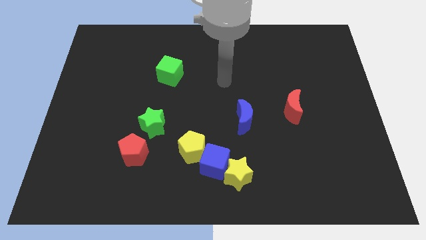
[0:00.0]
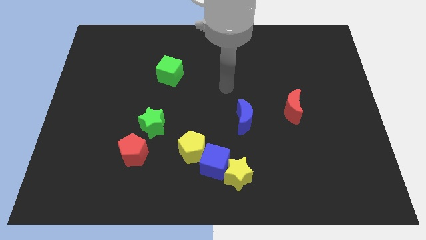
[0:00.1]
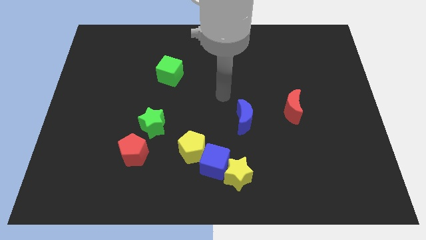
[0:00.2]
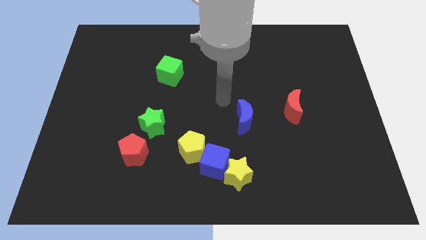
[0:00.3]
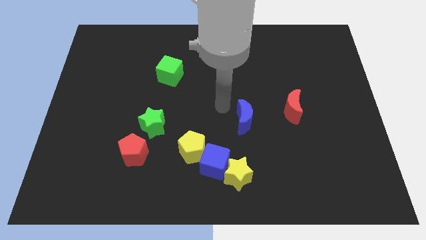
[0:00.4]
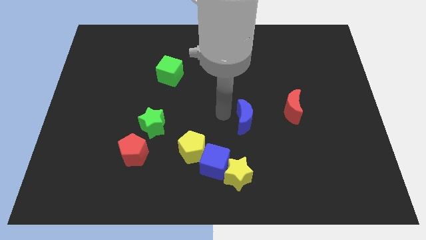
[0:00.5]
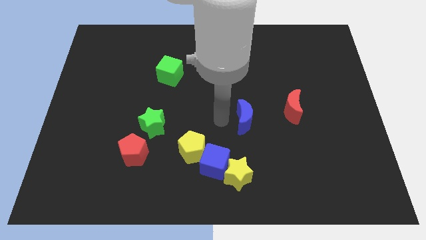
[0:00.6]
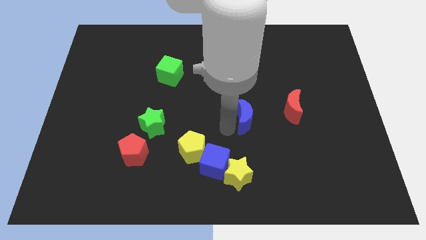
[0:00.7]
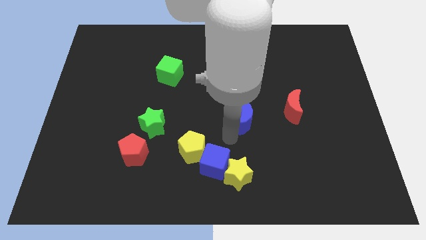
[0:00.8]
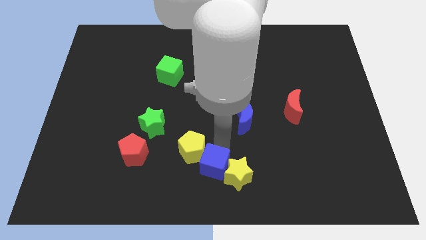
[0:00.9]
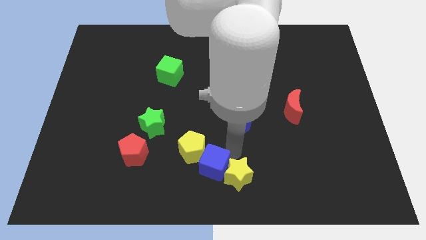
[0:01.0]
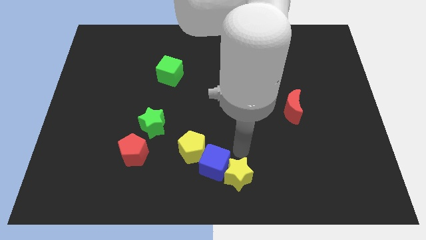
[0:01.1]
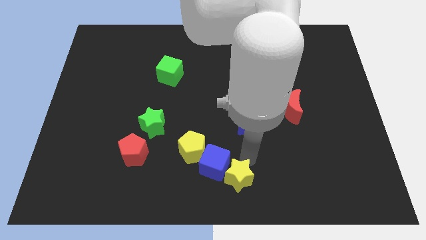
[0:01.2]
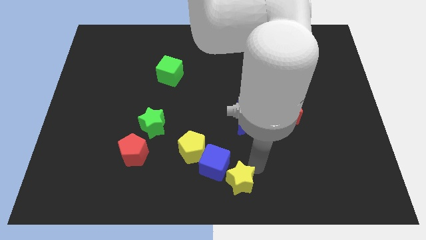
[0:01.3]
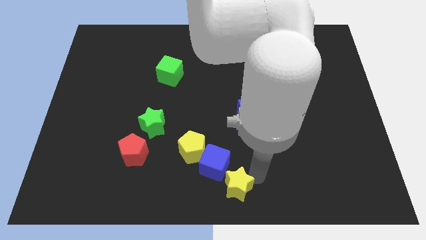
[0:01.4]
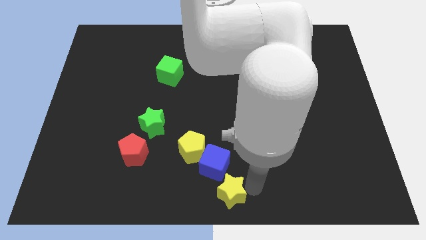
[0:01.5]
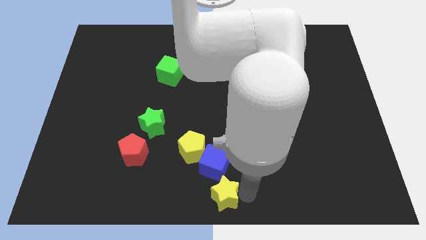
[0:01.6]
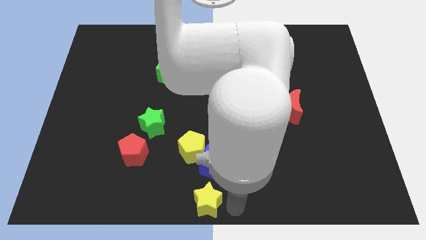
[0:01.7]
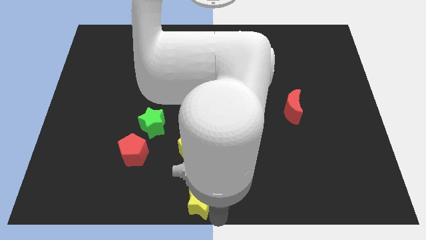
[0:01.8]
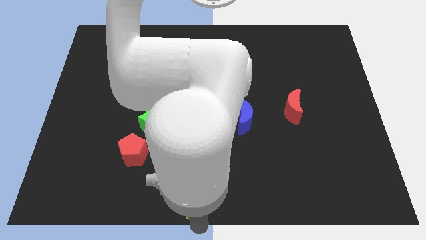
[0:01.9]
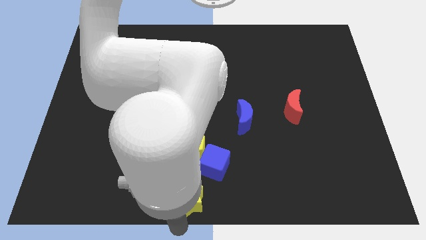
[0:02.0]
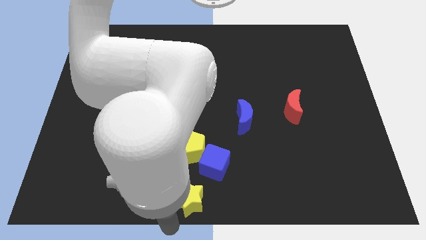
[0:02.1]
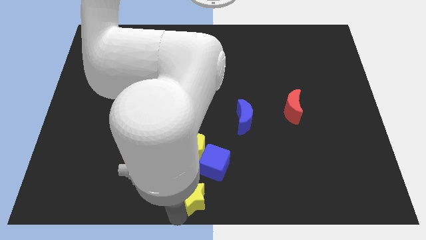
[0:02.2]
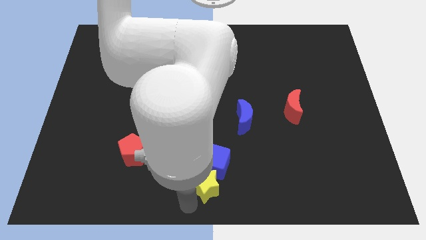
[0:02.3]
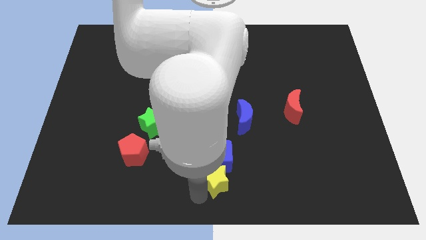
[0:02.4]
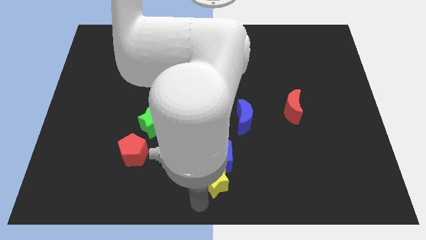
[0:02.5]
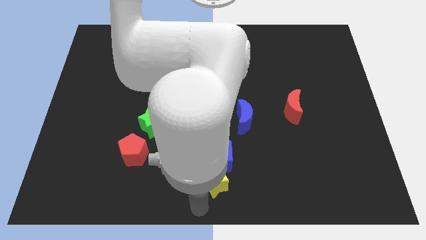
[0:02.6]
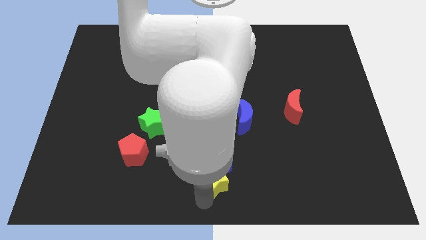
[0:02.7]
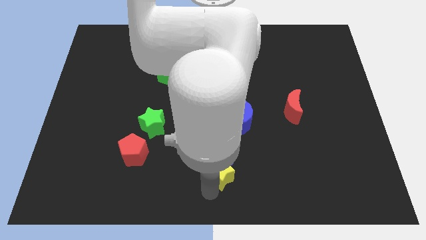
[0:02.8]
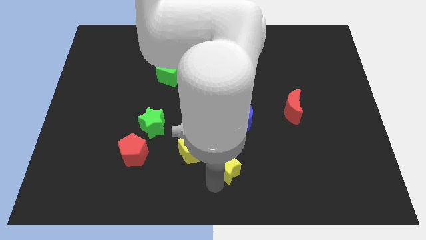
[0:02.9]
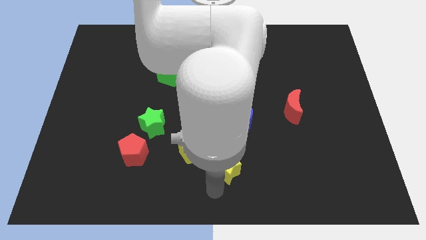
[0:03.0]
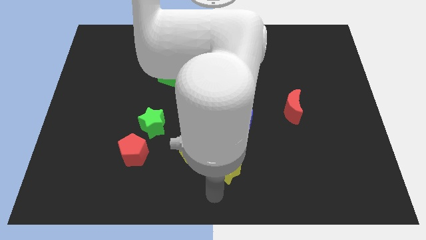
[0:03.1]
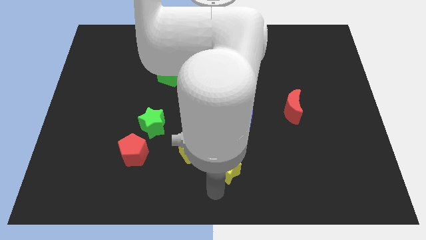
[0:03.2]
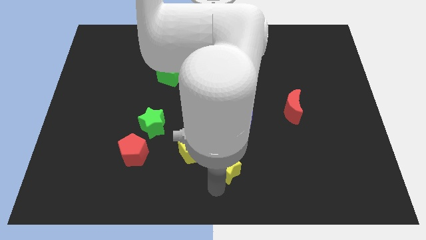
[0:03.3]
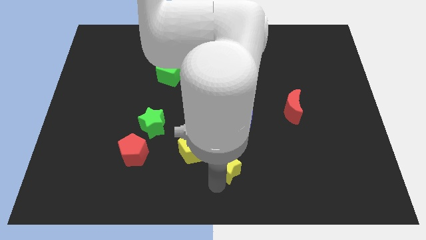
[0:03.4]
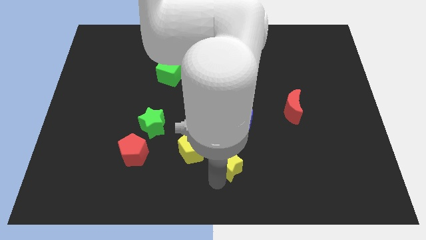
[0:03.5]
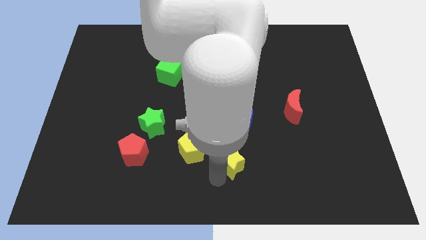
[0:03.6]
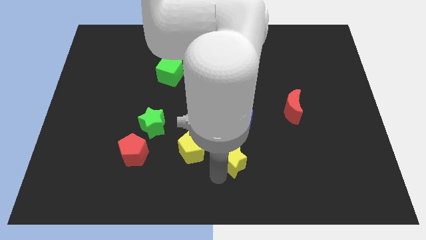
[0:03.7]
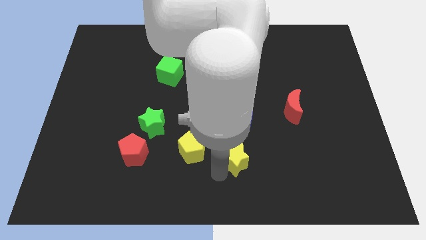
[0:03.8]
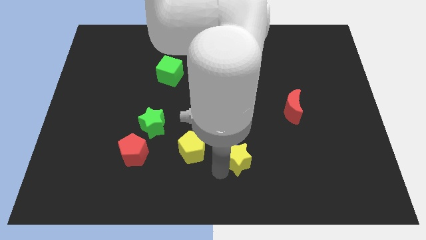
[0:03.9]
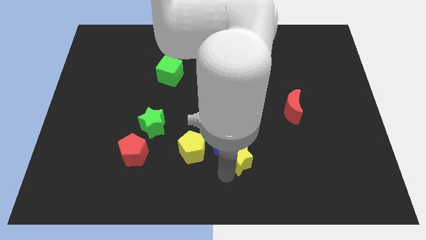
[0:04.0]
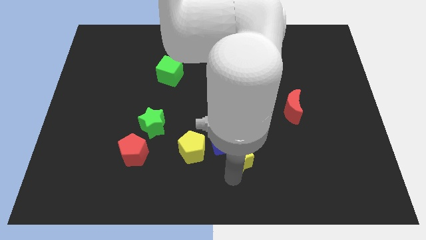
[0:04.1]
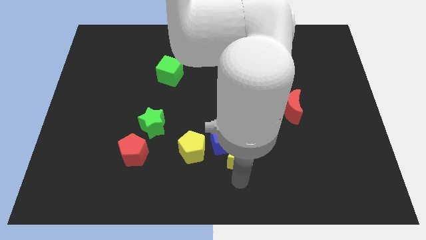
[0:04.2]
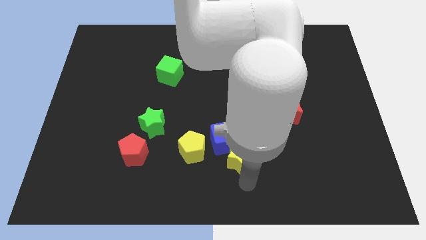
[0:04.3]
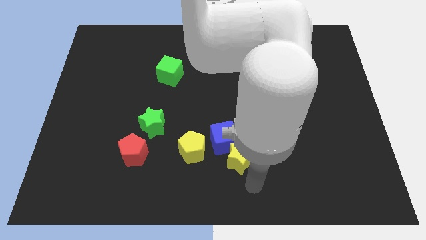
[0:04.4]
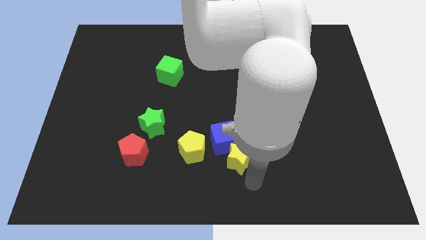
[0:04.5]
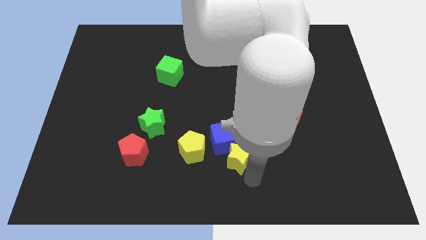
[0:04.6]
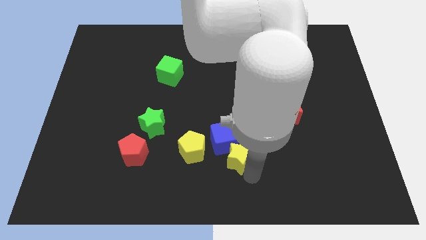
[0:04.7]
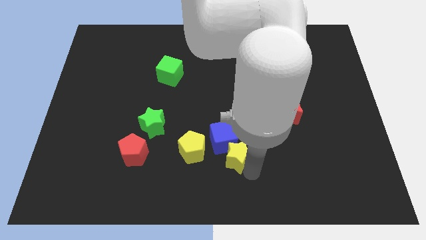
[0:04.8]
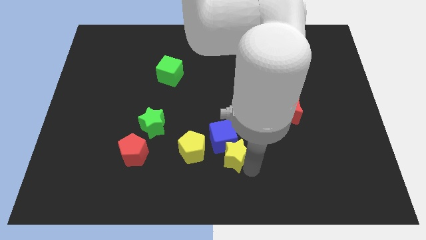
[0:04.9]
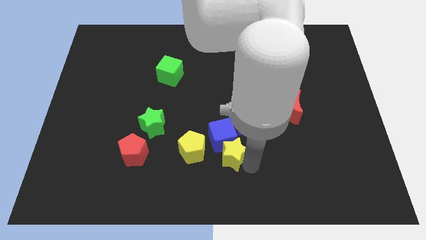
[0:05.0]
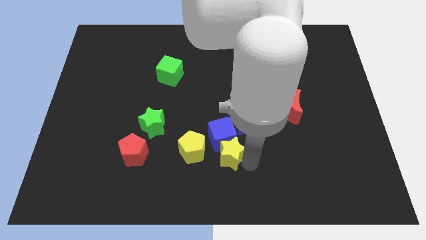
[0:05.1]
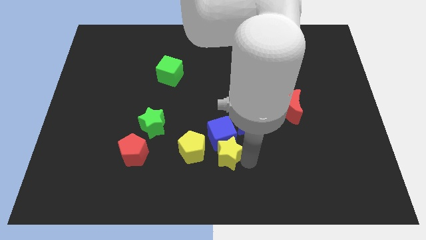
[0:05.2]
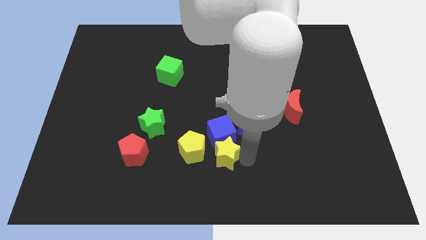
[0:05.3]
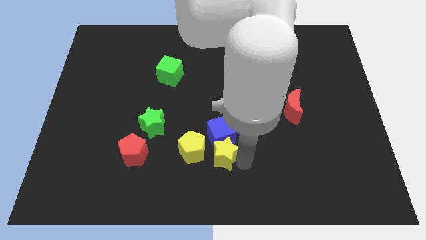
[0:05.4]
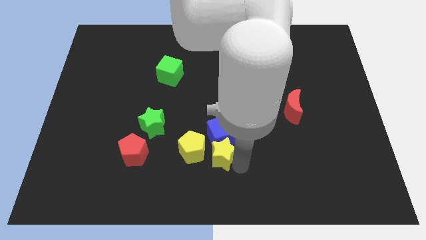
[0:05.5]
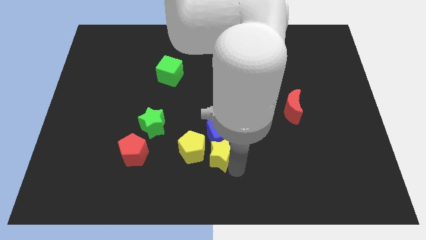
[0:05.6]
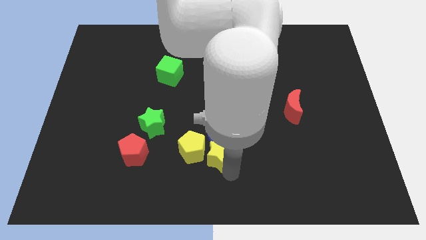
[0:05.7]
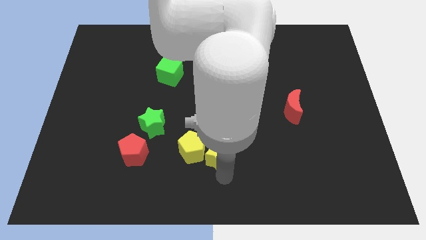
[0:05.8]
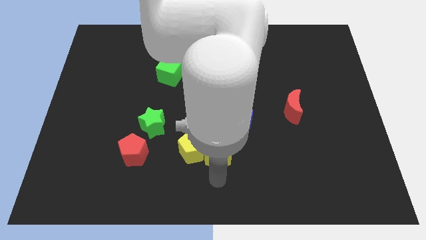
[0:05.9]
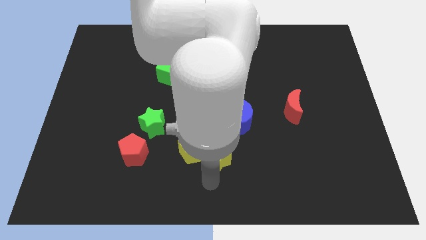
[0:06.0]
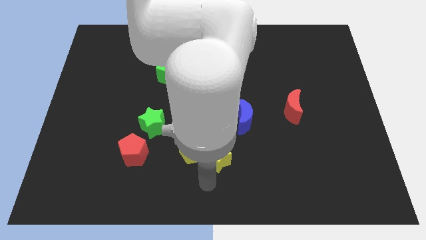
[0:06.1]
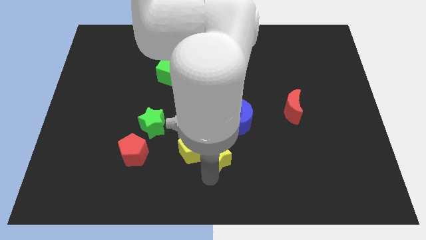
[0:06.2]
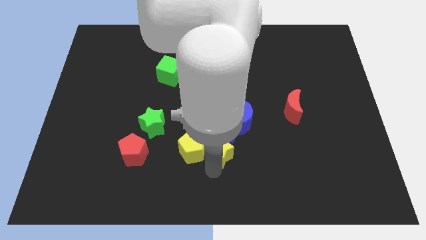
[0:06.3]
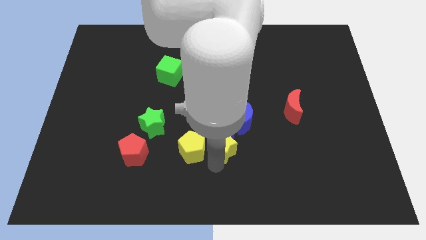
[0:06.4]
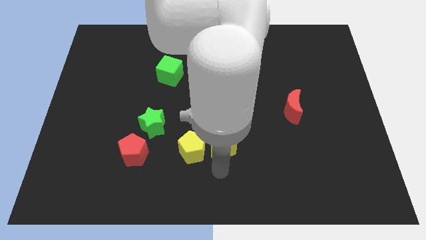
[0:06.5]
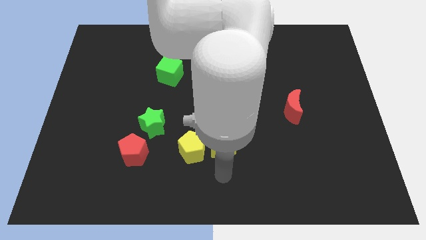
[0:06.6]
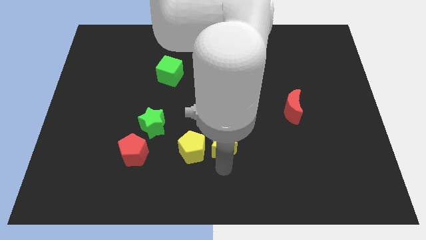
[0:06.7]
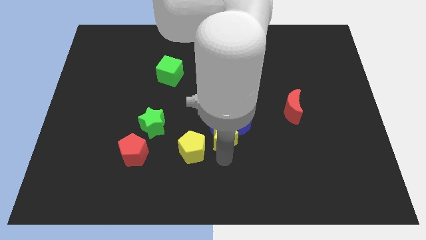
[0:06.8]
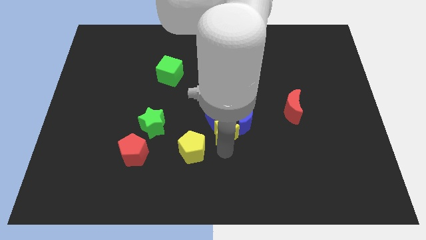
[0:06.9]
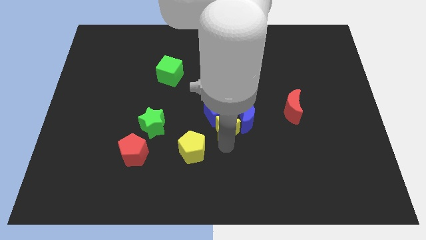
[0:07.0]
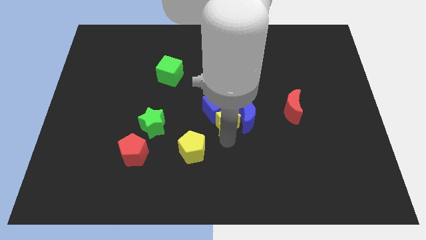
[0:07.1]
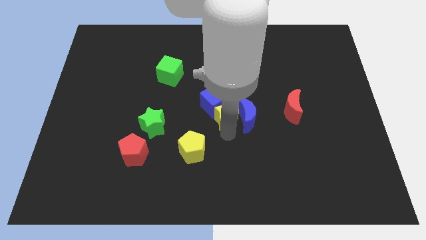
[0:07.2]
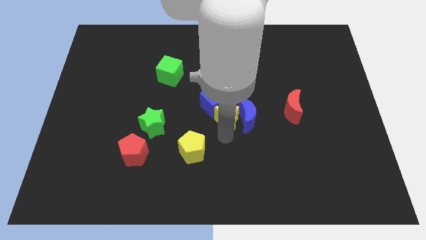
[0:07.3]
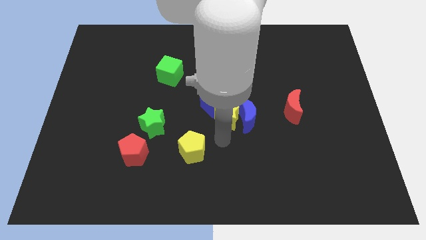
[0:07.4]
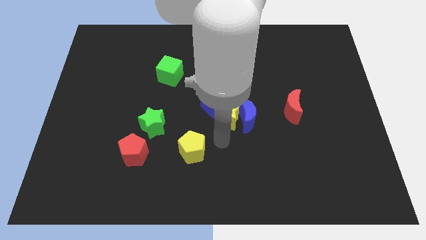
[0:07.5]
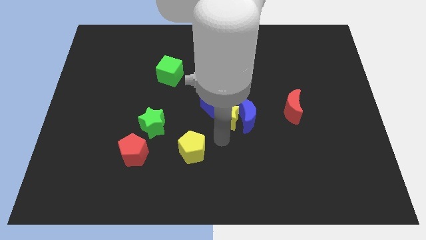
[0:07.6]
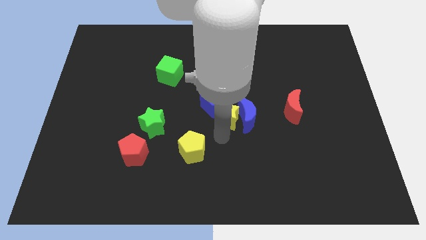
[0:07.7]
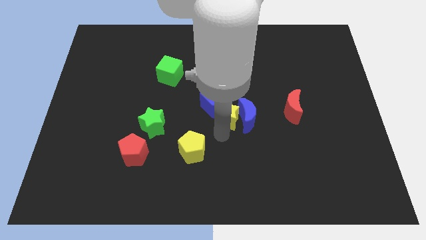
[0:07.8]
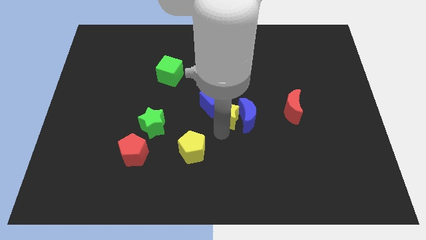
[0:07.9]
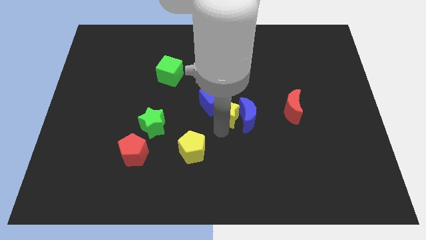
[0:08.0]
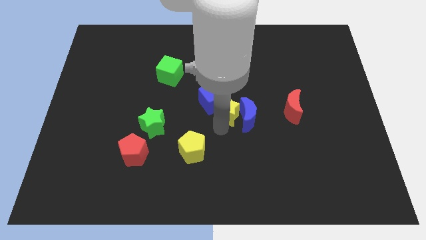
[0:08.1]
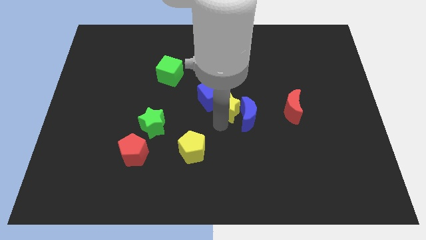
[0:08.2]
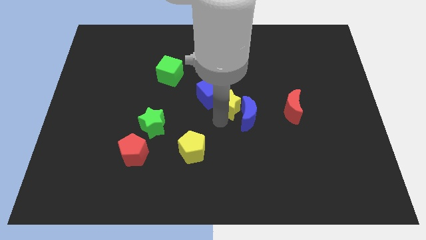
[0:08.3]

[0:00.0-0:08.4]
put the yellow star to the top side of the blue moon
